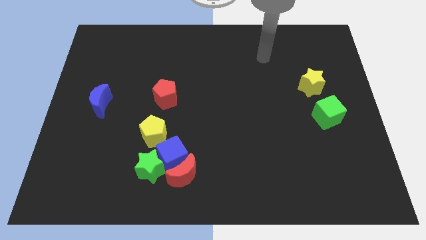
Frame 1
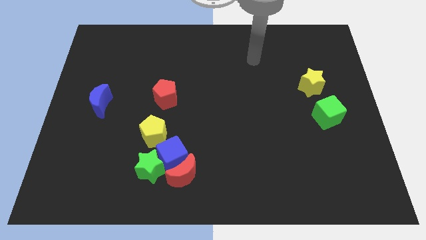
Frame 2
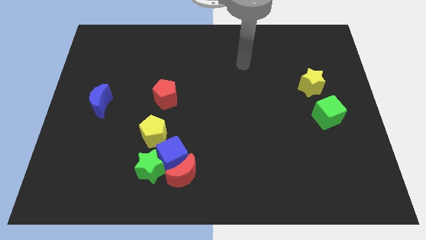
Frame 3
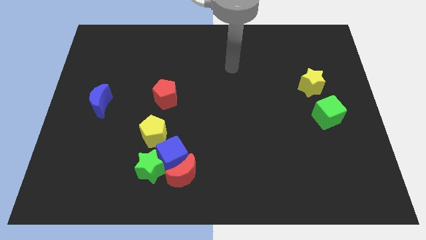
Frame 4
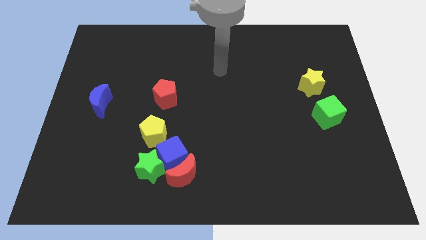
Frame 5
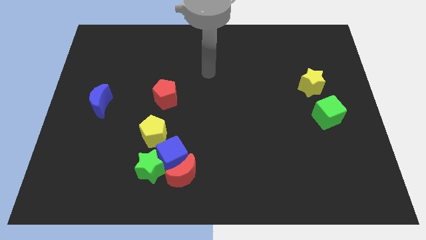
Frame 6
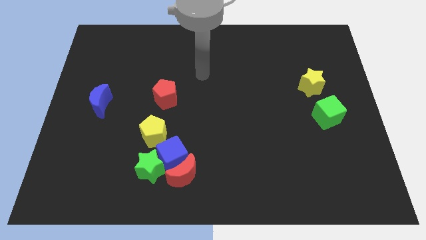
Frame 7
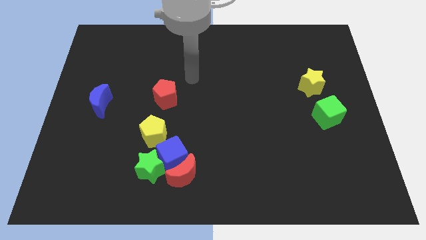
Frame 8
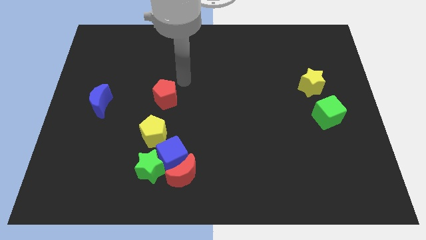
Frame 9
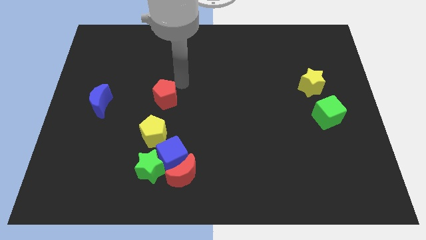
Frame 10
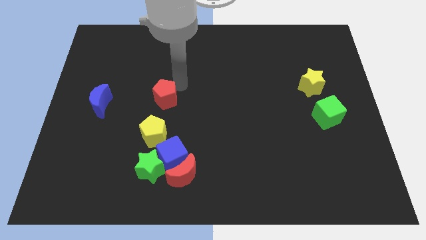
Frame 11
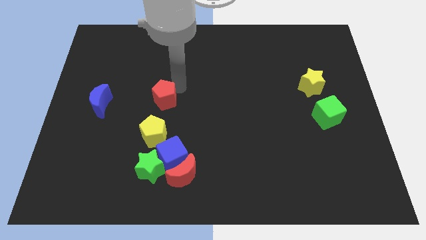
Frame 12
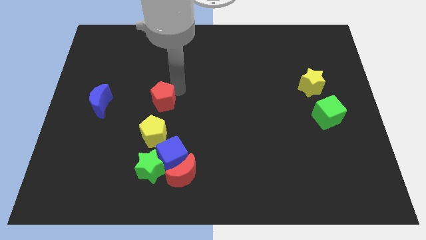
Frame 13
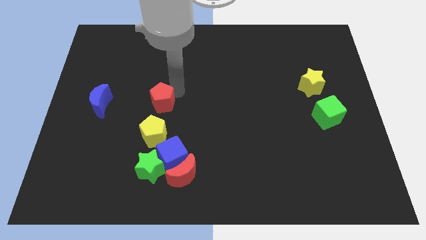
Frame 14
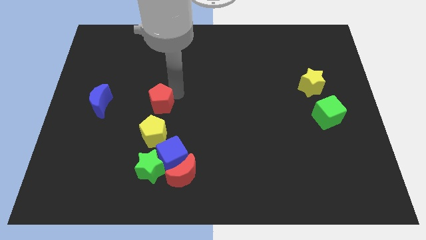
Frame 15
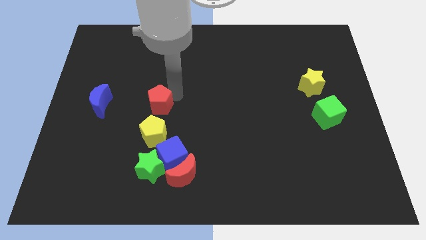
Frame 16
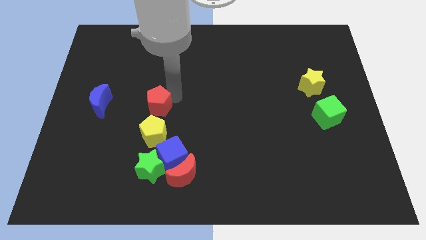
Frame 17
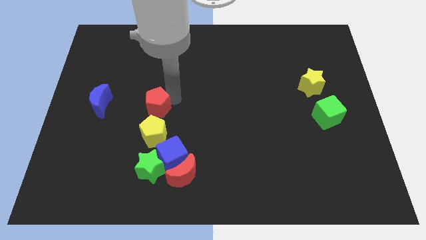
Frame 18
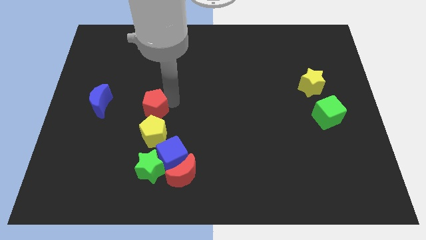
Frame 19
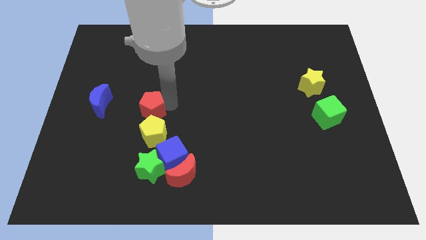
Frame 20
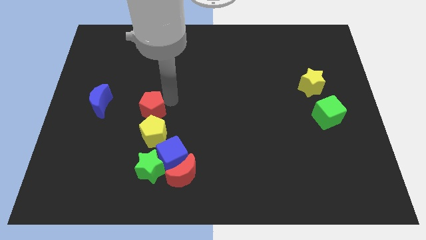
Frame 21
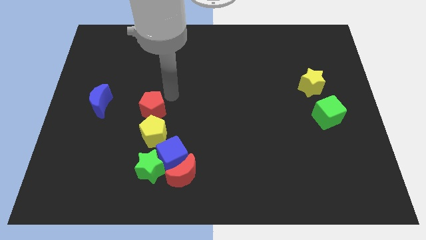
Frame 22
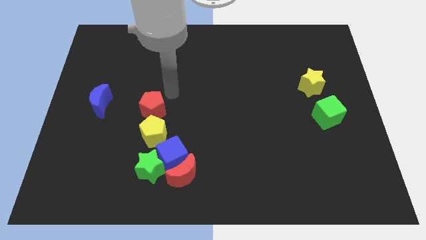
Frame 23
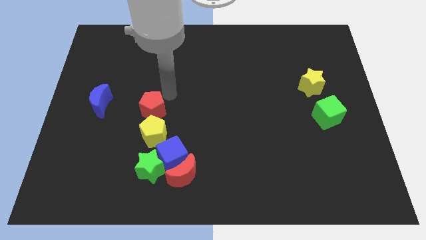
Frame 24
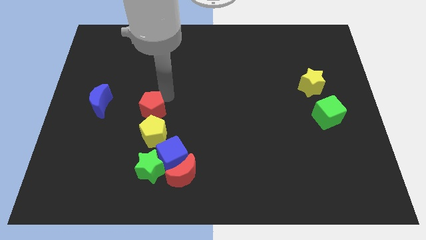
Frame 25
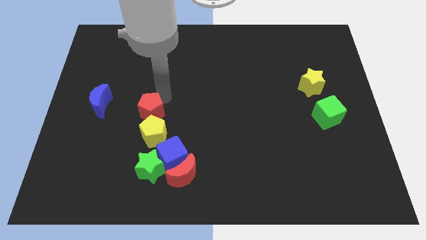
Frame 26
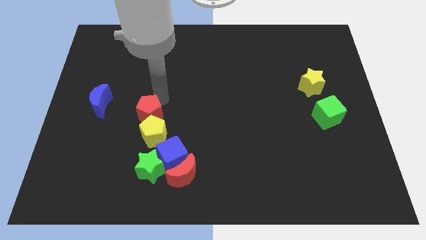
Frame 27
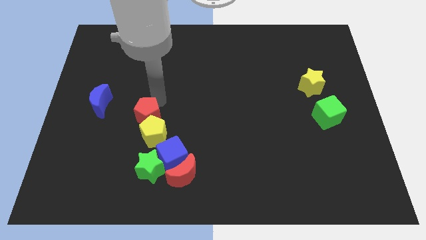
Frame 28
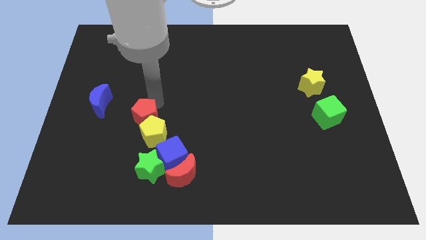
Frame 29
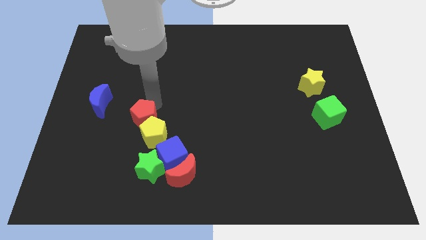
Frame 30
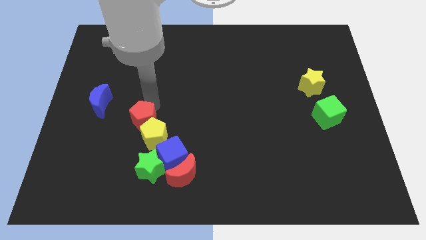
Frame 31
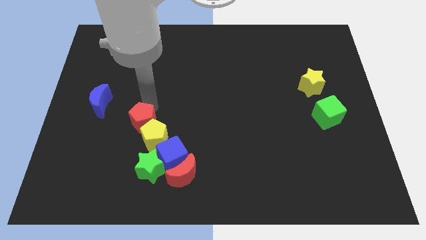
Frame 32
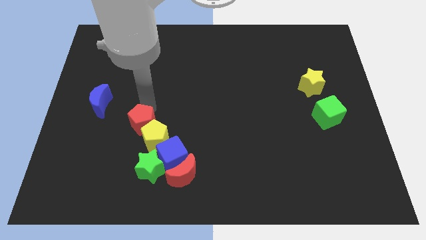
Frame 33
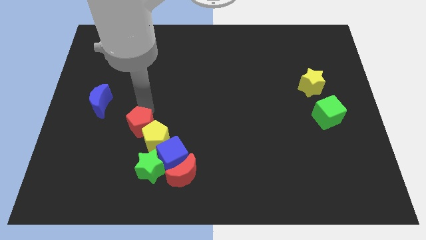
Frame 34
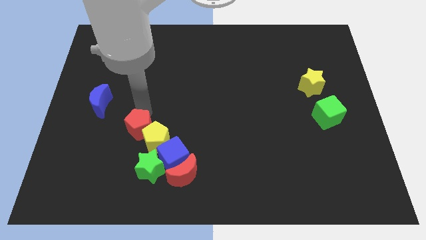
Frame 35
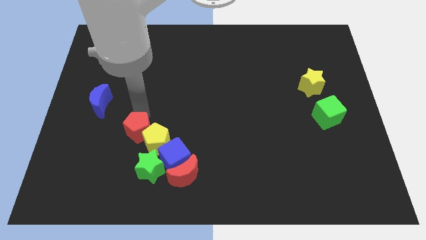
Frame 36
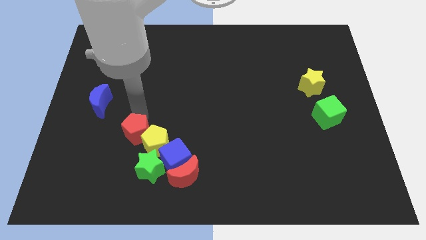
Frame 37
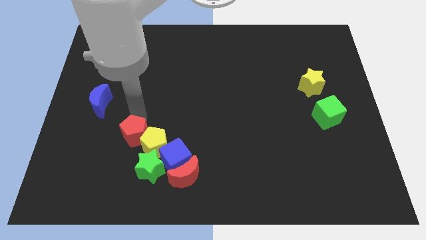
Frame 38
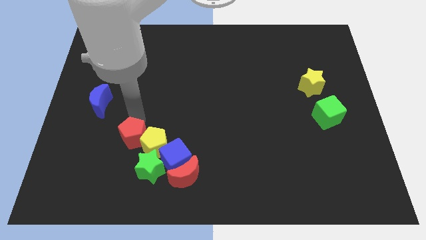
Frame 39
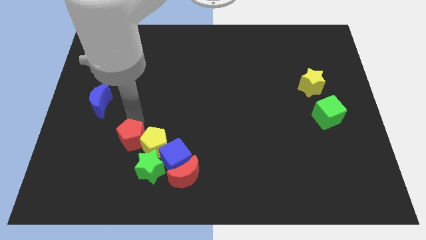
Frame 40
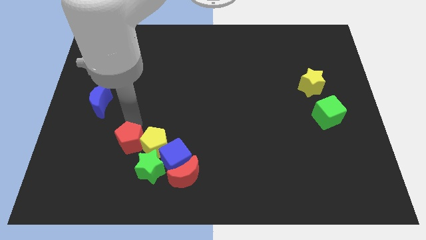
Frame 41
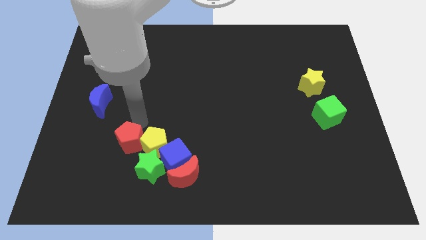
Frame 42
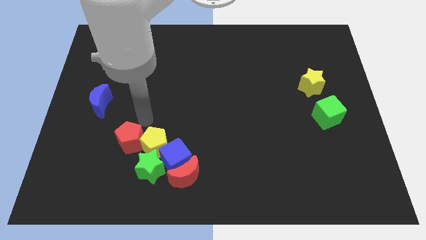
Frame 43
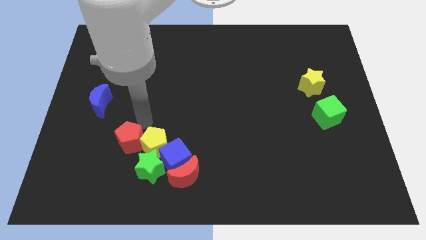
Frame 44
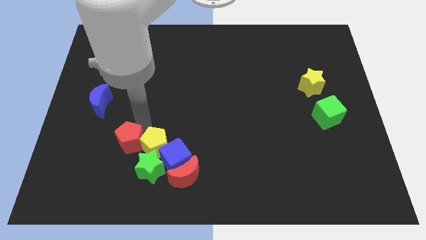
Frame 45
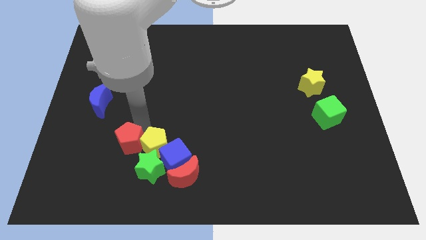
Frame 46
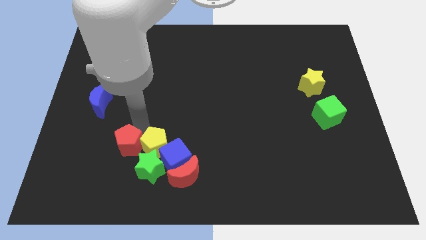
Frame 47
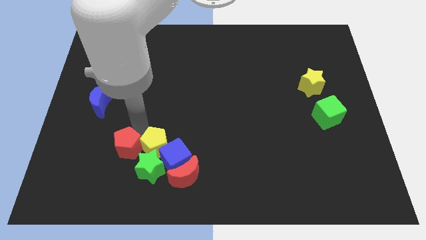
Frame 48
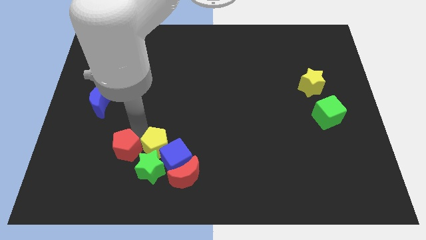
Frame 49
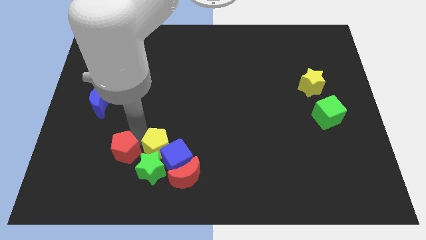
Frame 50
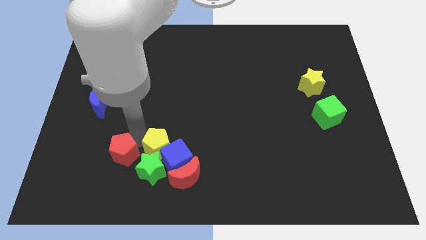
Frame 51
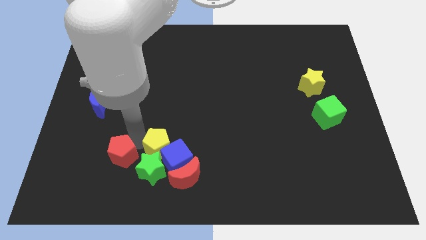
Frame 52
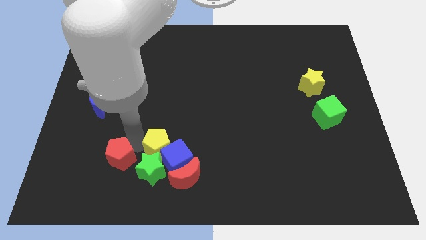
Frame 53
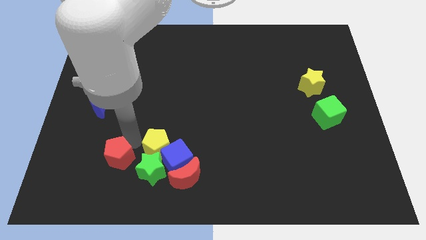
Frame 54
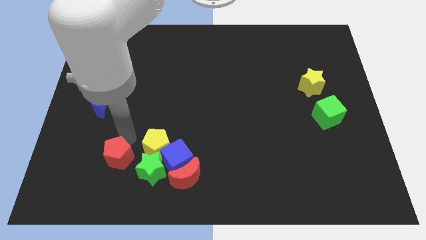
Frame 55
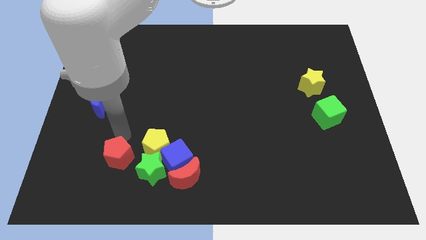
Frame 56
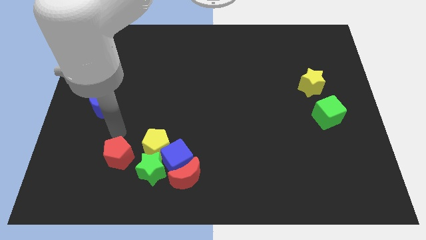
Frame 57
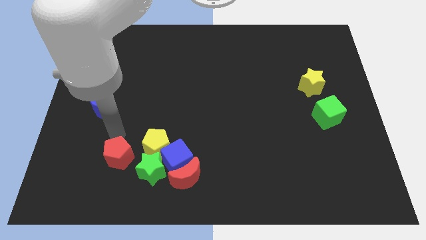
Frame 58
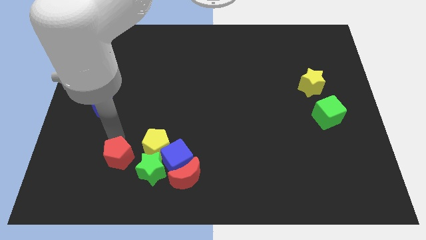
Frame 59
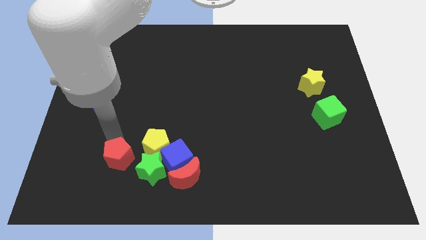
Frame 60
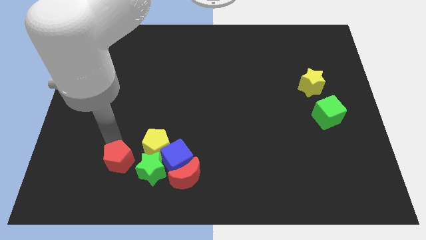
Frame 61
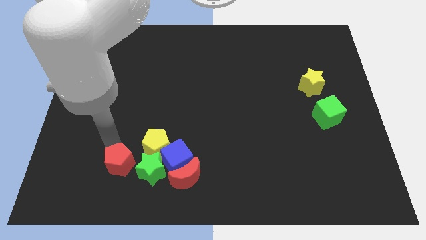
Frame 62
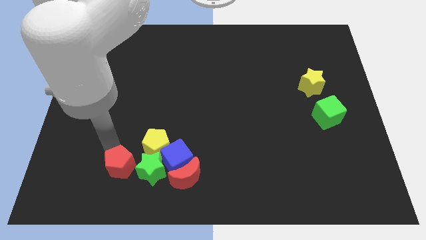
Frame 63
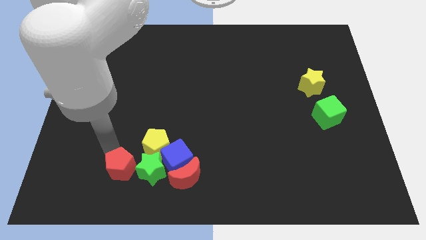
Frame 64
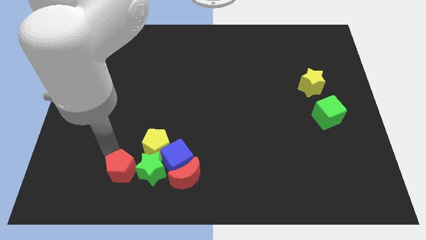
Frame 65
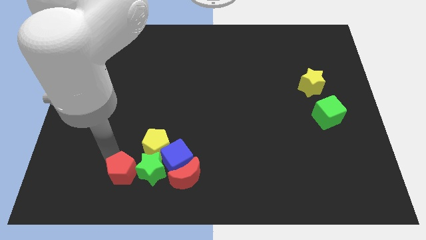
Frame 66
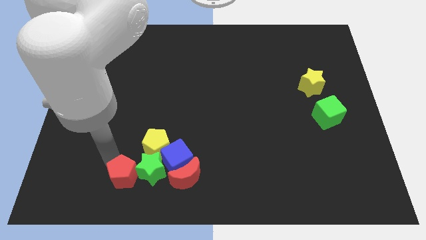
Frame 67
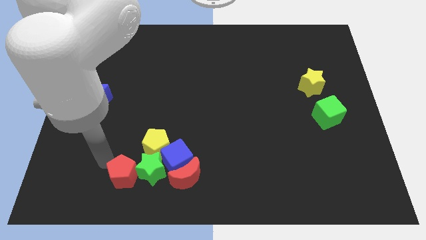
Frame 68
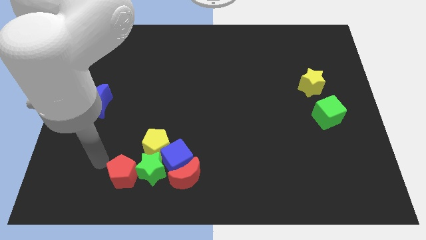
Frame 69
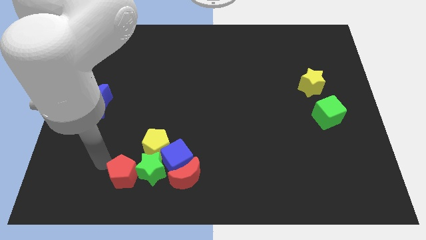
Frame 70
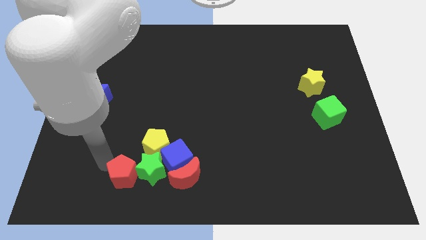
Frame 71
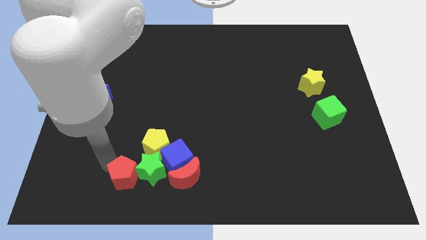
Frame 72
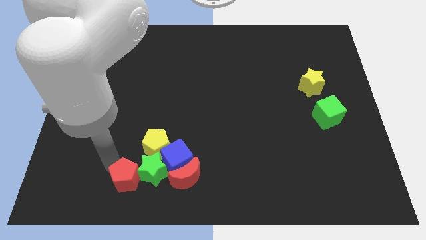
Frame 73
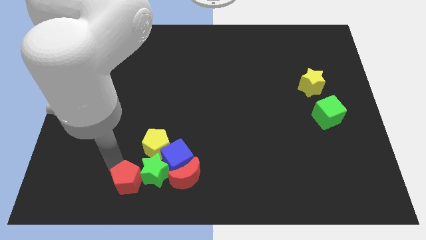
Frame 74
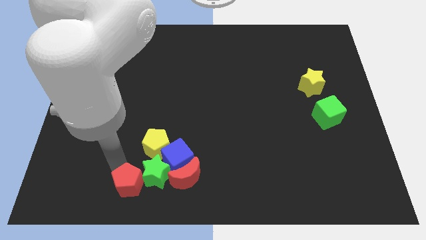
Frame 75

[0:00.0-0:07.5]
put the red pentagon to the bottom side of the yellow pentagon
